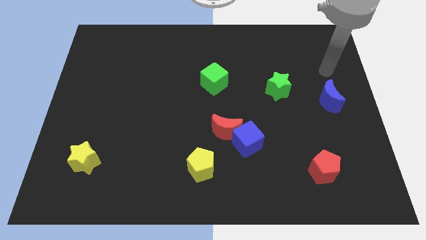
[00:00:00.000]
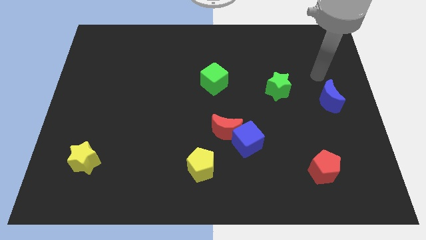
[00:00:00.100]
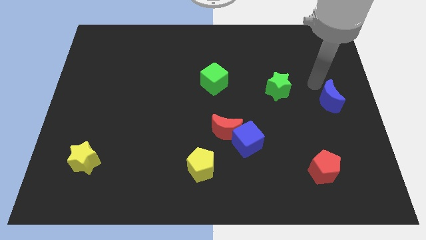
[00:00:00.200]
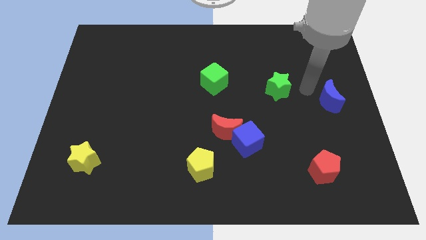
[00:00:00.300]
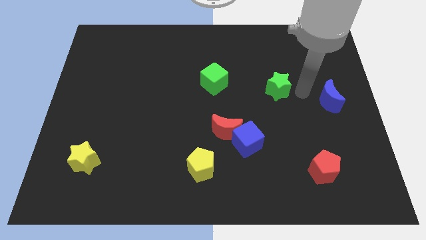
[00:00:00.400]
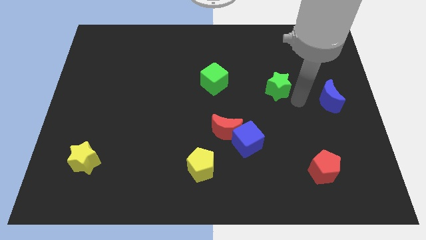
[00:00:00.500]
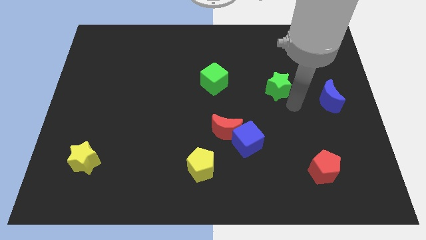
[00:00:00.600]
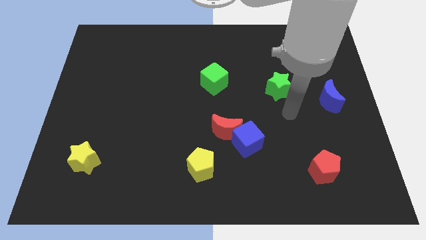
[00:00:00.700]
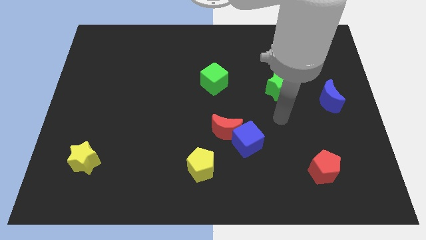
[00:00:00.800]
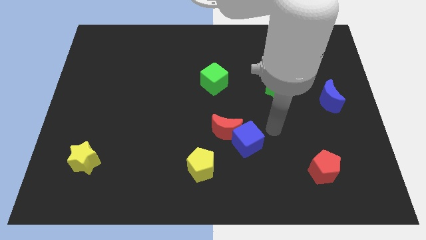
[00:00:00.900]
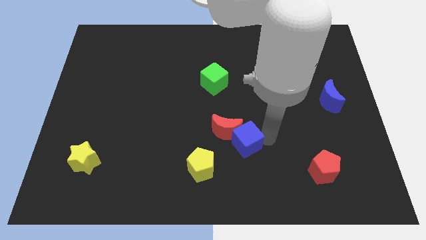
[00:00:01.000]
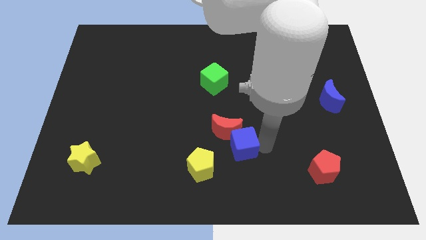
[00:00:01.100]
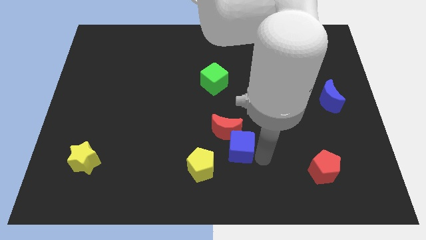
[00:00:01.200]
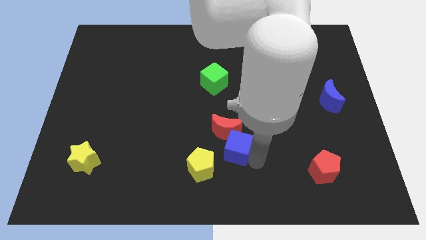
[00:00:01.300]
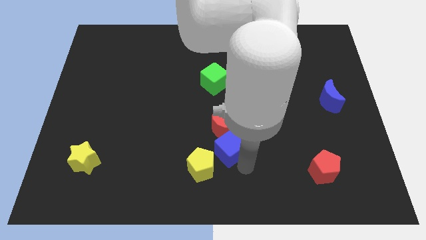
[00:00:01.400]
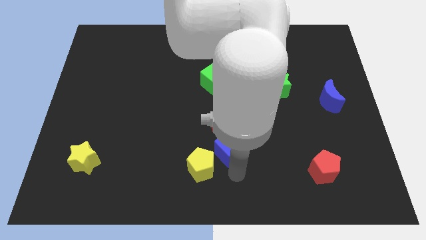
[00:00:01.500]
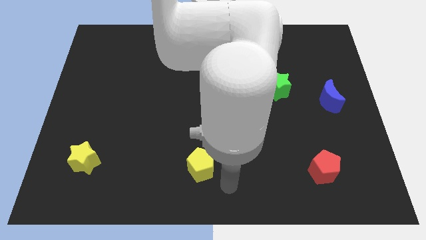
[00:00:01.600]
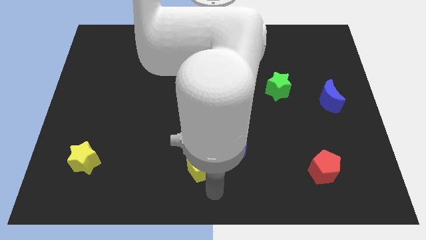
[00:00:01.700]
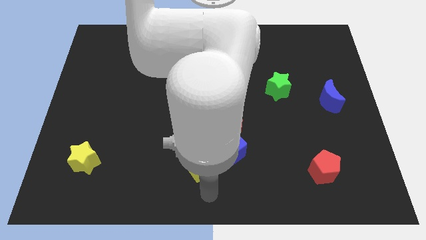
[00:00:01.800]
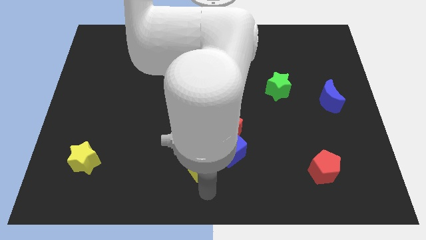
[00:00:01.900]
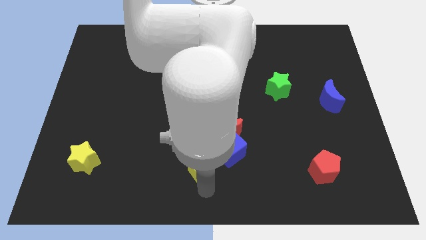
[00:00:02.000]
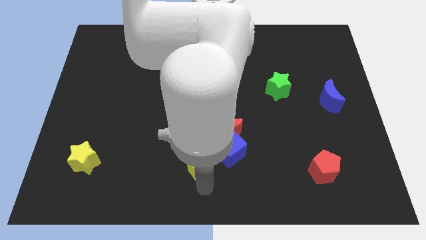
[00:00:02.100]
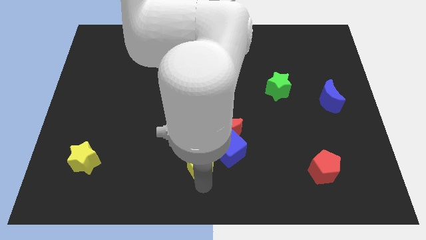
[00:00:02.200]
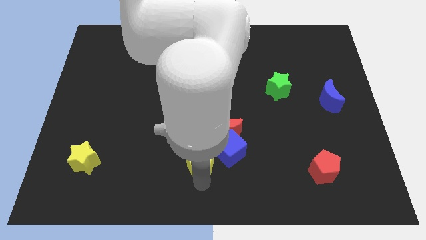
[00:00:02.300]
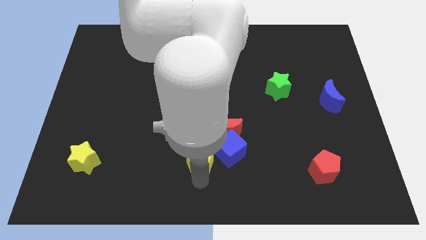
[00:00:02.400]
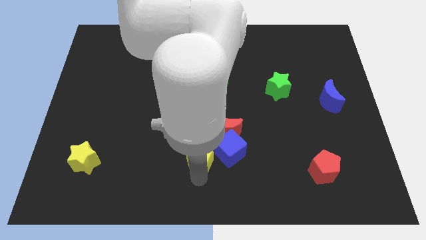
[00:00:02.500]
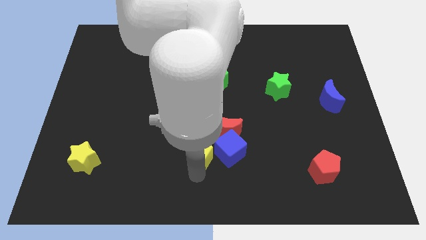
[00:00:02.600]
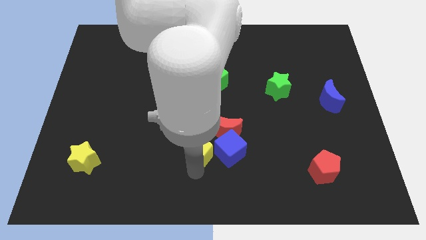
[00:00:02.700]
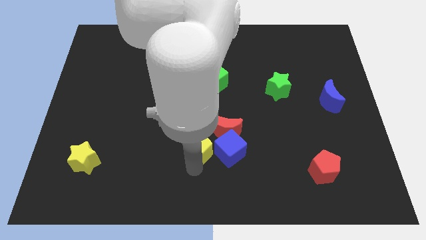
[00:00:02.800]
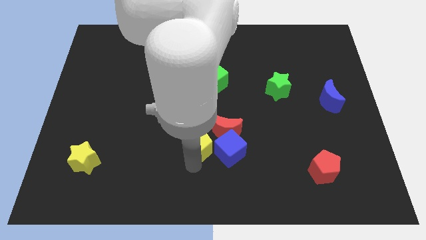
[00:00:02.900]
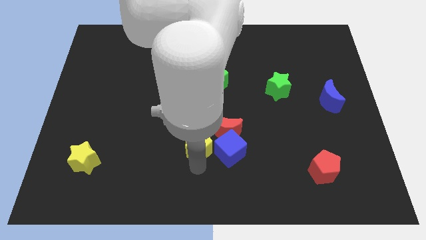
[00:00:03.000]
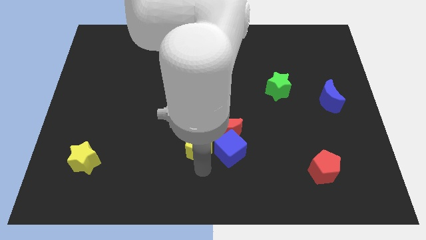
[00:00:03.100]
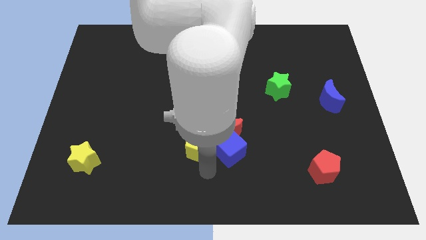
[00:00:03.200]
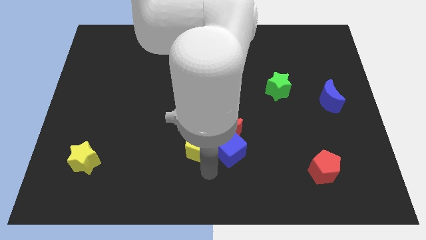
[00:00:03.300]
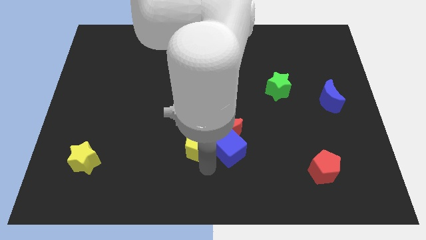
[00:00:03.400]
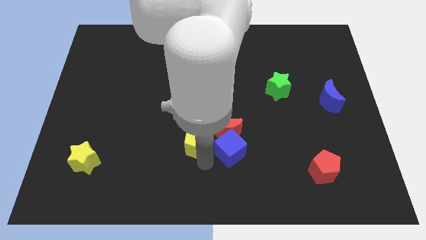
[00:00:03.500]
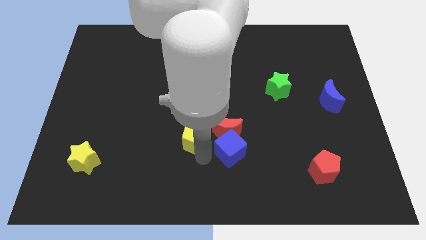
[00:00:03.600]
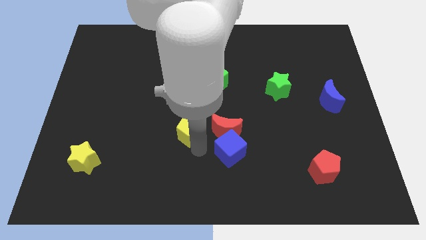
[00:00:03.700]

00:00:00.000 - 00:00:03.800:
move the yellow pentagon slightly upwards

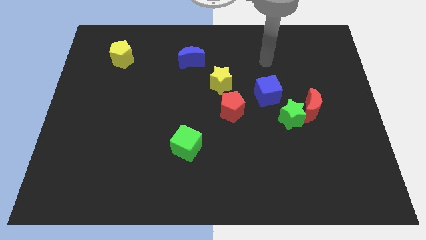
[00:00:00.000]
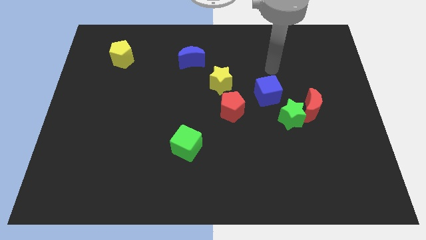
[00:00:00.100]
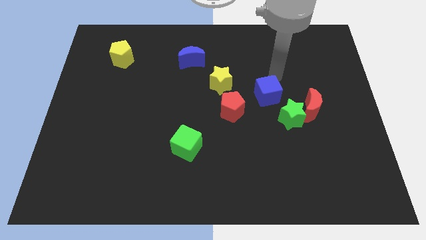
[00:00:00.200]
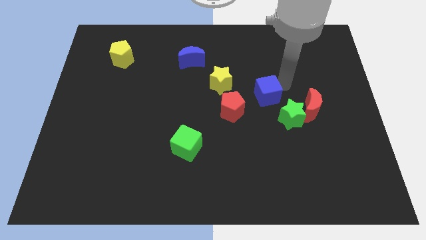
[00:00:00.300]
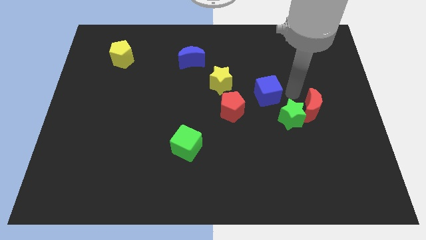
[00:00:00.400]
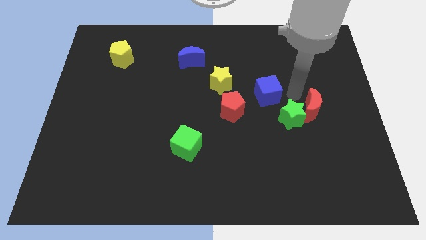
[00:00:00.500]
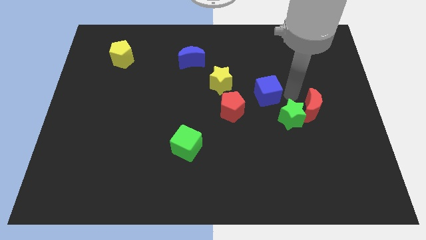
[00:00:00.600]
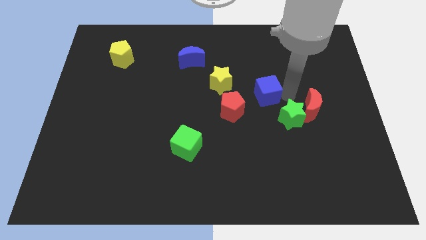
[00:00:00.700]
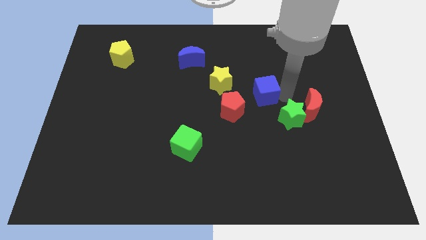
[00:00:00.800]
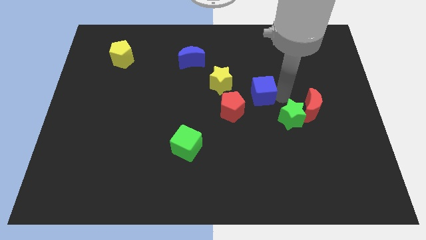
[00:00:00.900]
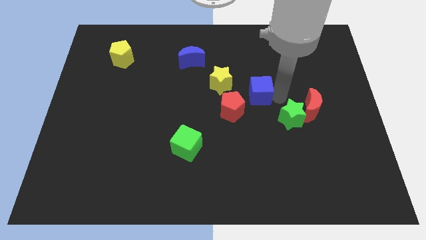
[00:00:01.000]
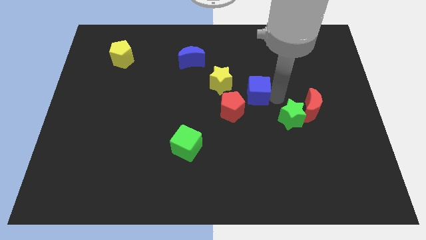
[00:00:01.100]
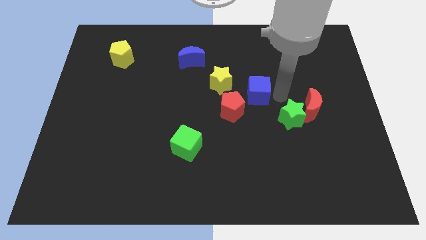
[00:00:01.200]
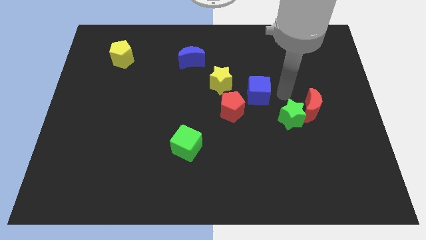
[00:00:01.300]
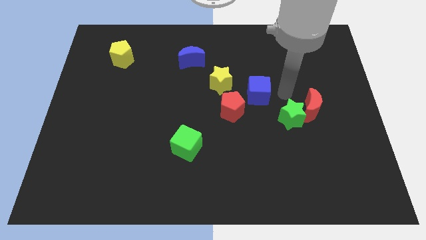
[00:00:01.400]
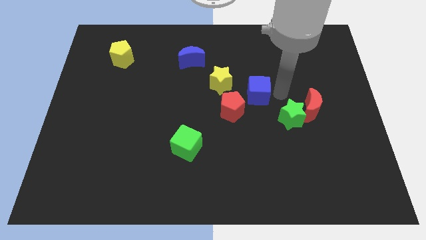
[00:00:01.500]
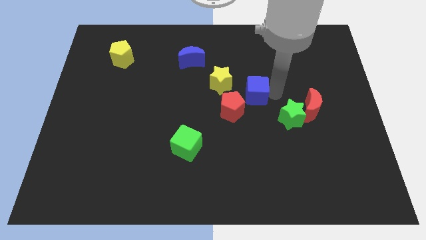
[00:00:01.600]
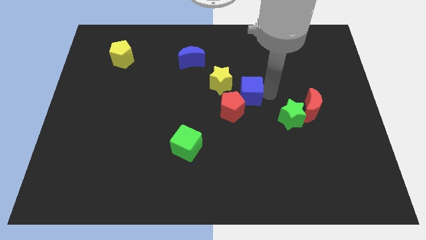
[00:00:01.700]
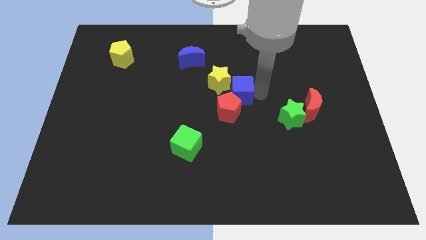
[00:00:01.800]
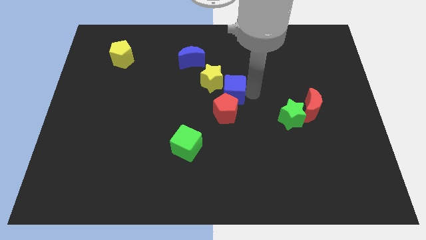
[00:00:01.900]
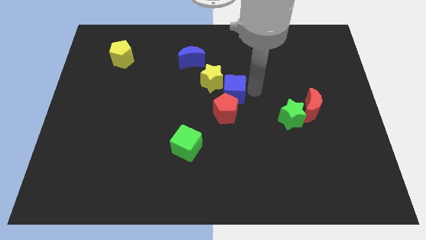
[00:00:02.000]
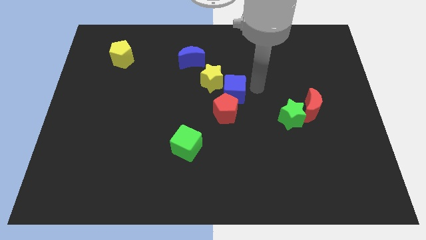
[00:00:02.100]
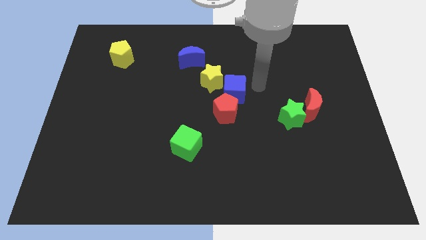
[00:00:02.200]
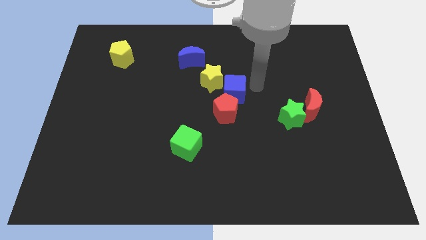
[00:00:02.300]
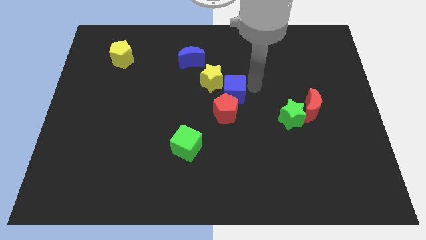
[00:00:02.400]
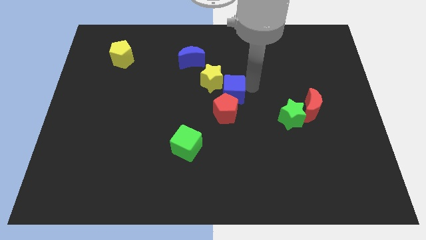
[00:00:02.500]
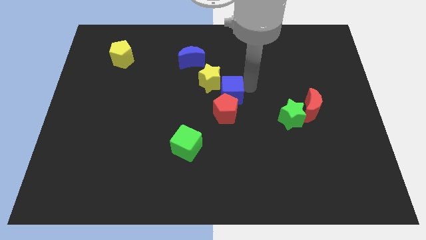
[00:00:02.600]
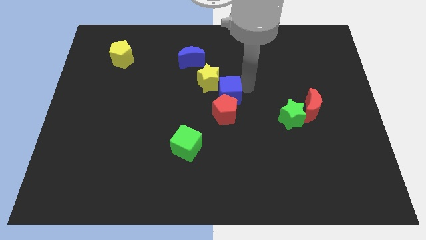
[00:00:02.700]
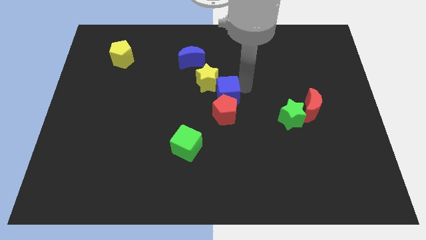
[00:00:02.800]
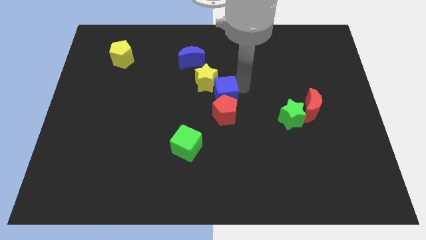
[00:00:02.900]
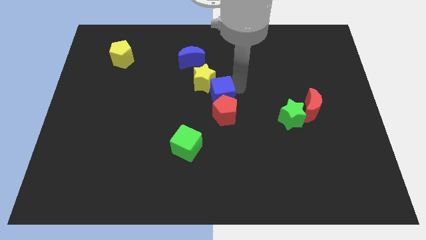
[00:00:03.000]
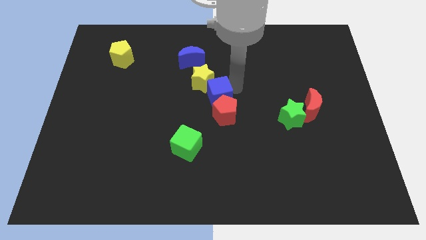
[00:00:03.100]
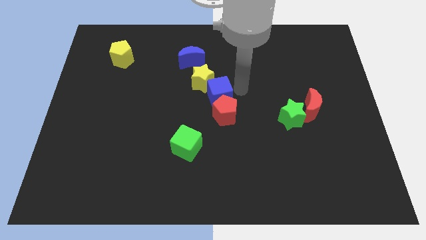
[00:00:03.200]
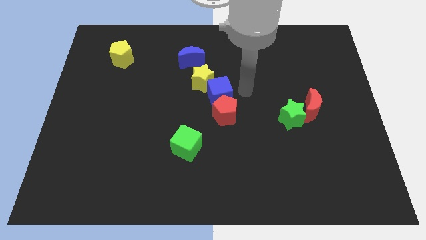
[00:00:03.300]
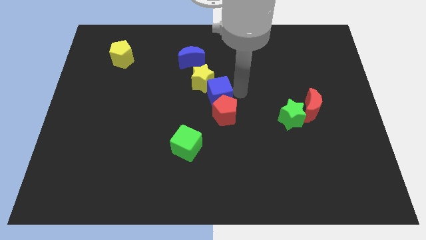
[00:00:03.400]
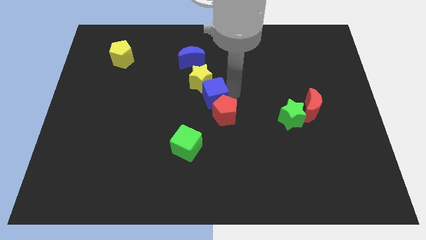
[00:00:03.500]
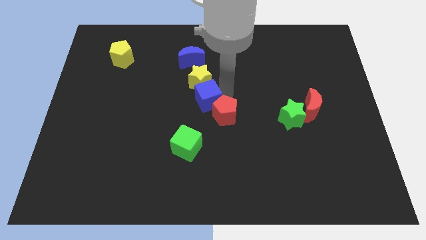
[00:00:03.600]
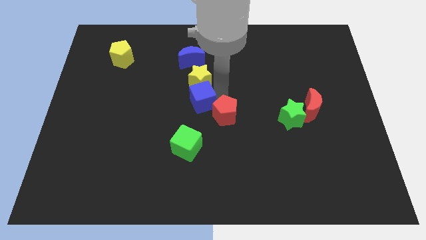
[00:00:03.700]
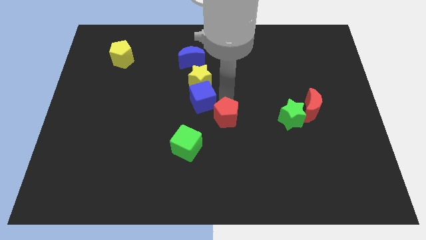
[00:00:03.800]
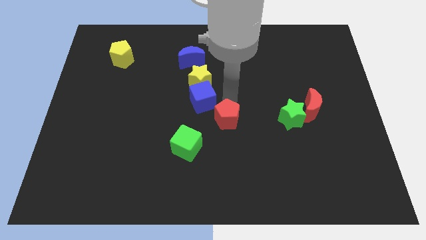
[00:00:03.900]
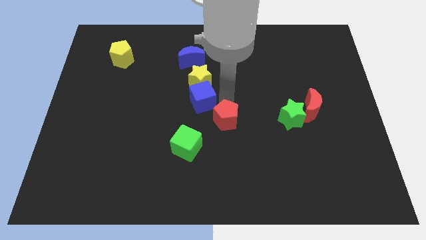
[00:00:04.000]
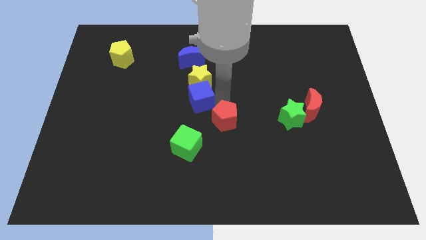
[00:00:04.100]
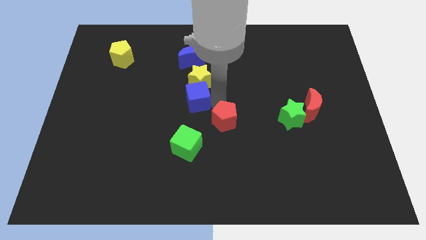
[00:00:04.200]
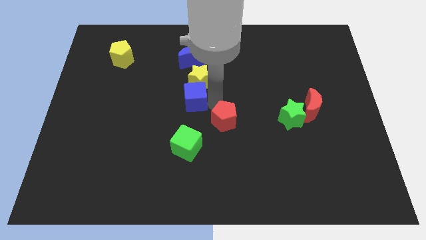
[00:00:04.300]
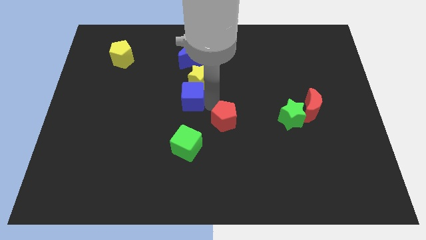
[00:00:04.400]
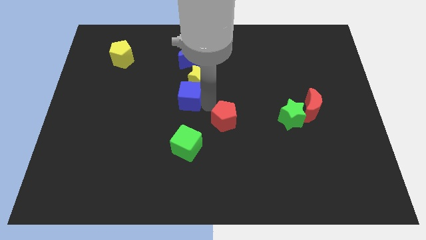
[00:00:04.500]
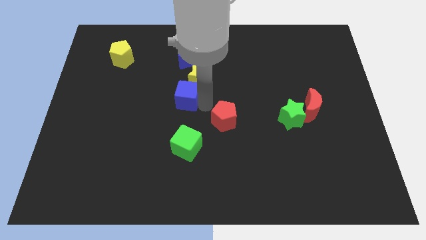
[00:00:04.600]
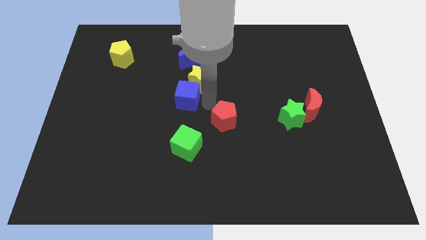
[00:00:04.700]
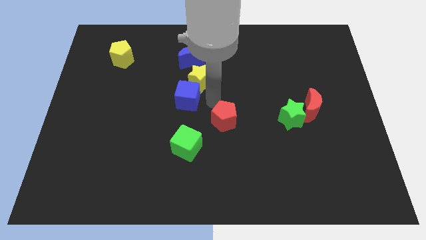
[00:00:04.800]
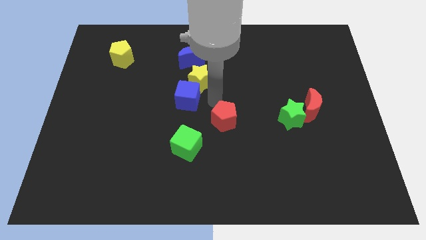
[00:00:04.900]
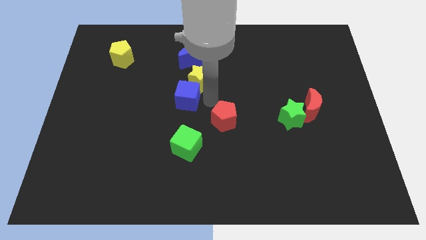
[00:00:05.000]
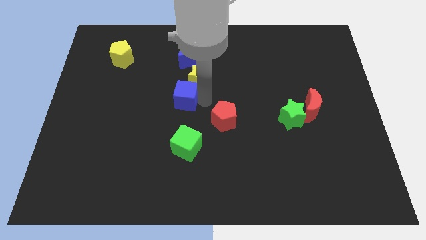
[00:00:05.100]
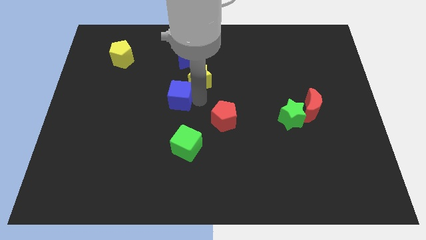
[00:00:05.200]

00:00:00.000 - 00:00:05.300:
push the blue cube left
